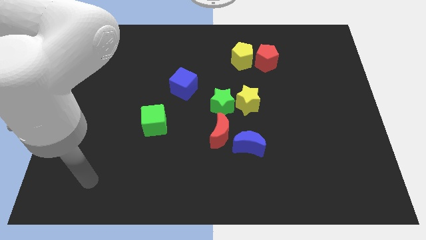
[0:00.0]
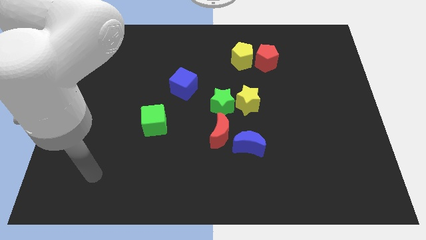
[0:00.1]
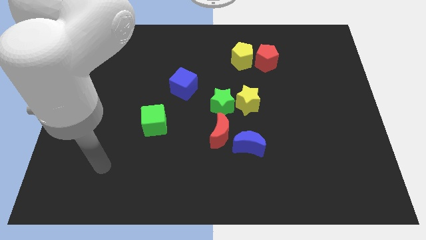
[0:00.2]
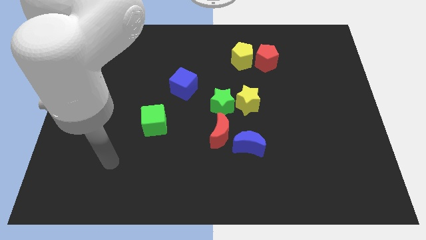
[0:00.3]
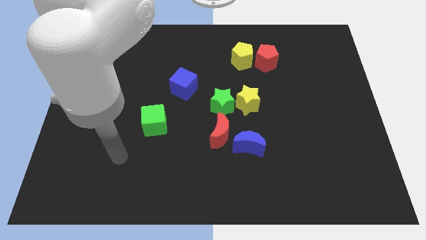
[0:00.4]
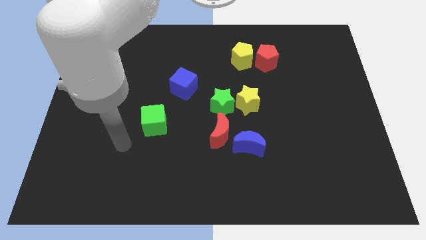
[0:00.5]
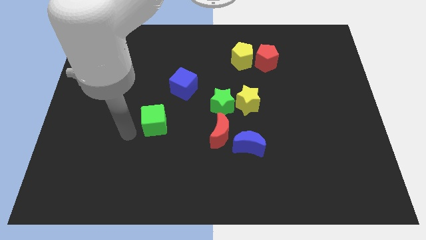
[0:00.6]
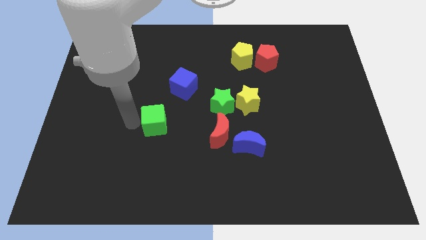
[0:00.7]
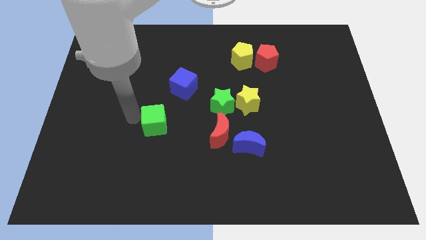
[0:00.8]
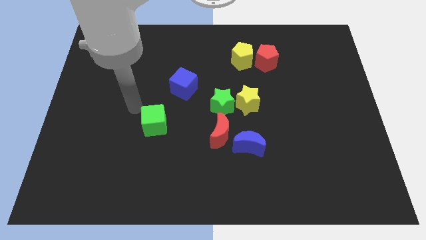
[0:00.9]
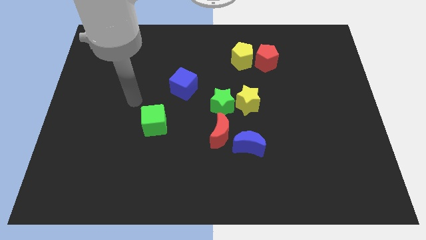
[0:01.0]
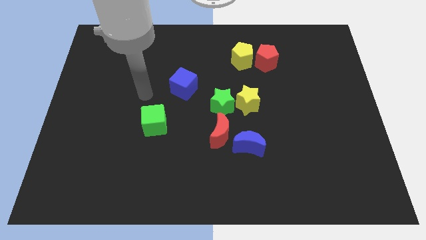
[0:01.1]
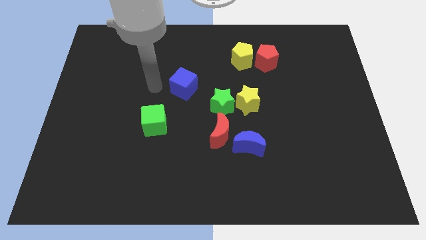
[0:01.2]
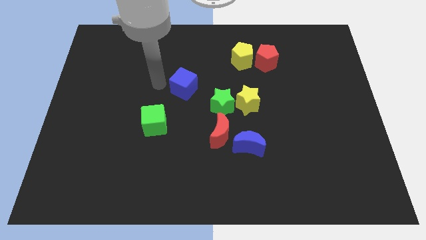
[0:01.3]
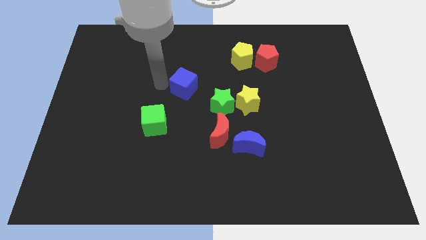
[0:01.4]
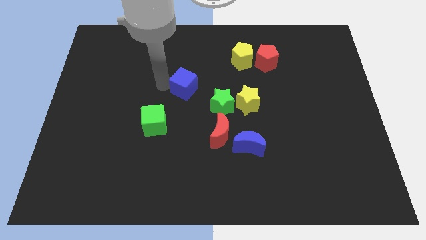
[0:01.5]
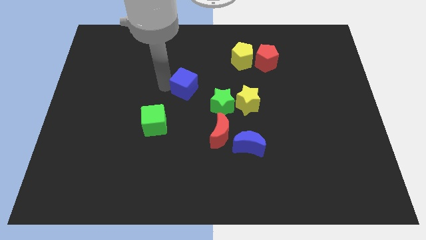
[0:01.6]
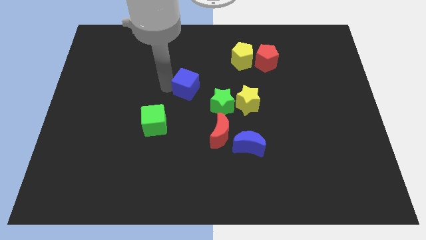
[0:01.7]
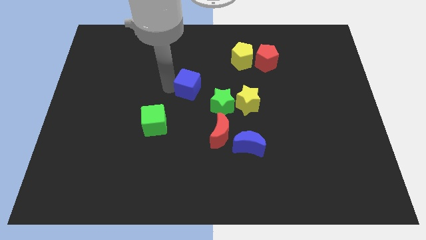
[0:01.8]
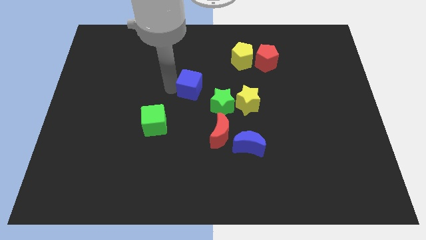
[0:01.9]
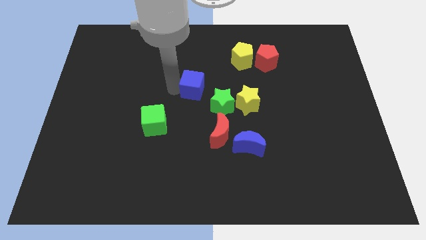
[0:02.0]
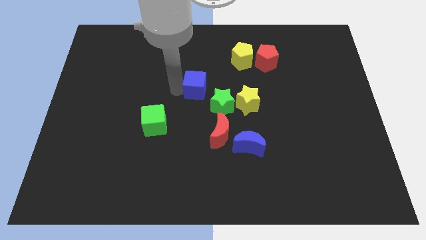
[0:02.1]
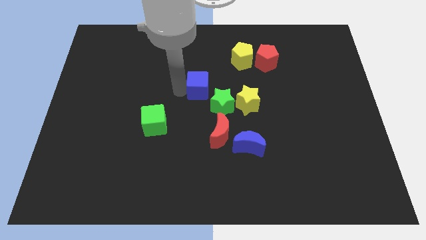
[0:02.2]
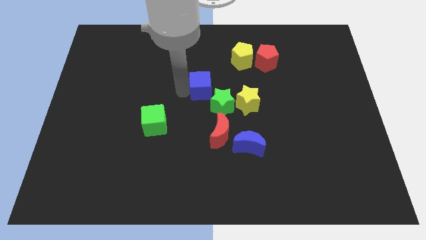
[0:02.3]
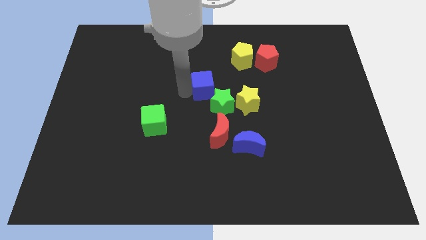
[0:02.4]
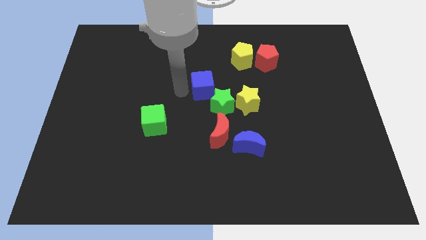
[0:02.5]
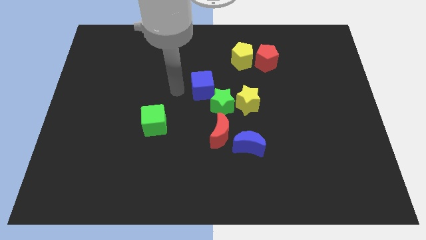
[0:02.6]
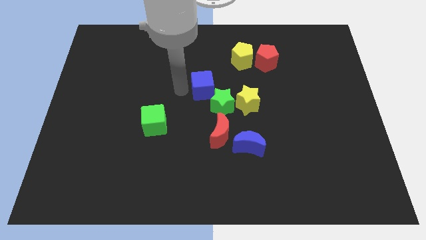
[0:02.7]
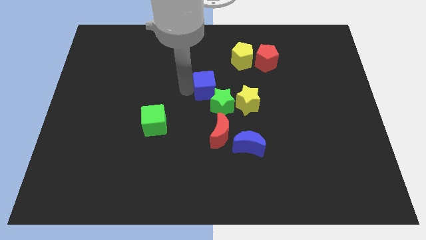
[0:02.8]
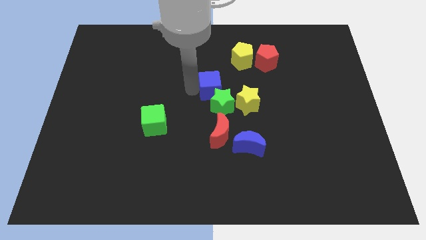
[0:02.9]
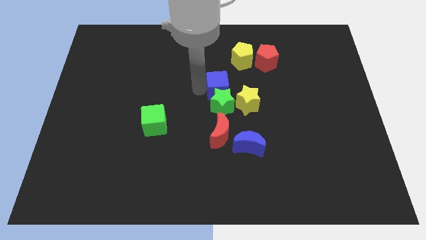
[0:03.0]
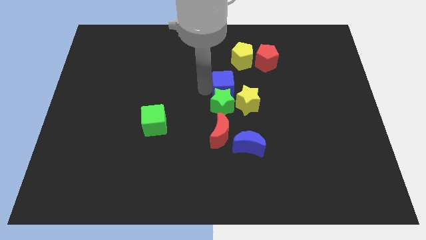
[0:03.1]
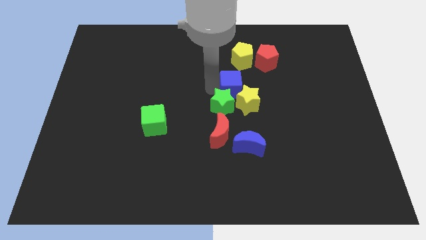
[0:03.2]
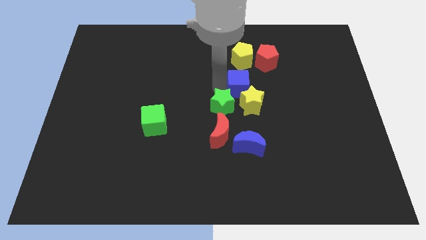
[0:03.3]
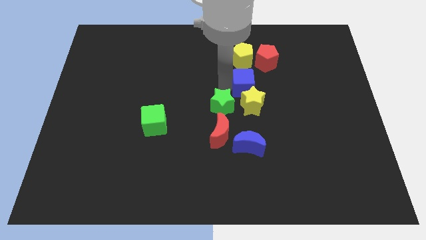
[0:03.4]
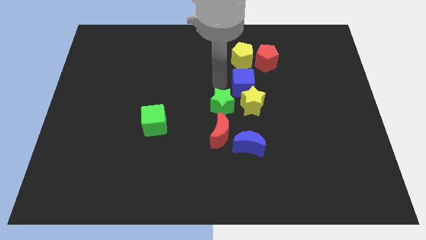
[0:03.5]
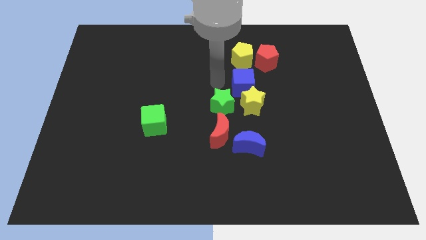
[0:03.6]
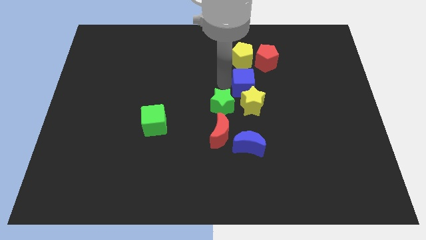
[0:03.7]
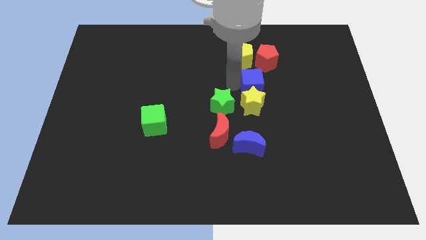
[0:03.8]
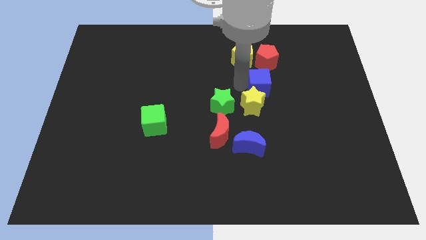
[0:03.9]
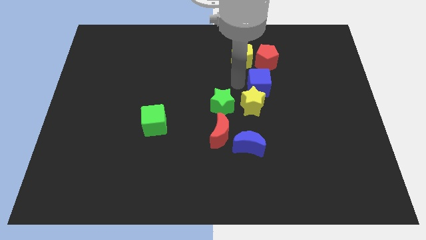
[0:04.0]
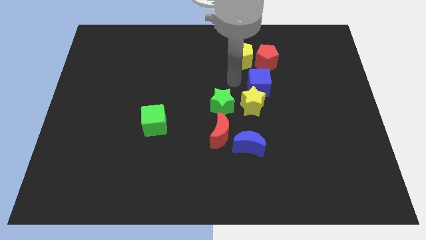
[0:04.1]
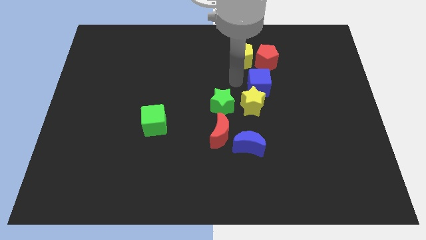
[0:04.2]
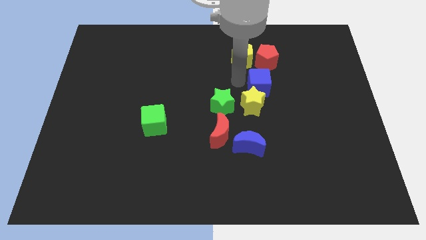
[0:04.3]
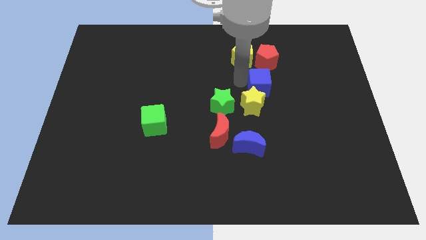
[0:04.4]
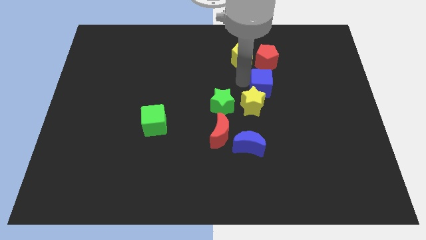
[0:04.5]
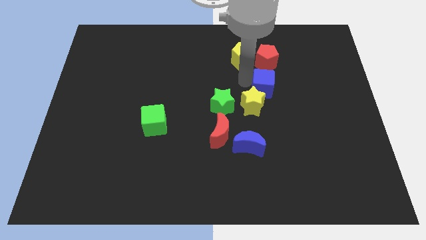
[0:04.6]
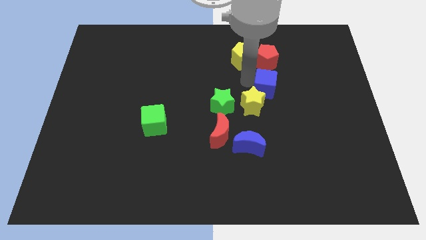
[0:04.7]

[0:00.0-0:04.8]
push the blue cube to the right

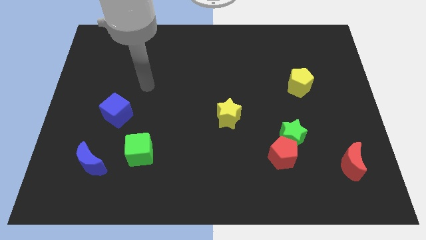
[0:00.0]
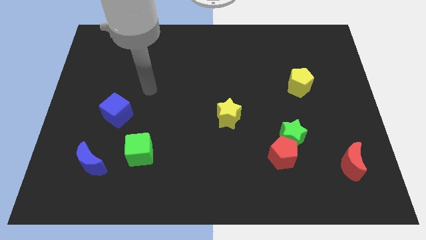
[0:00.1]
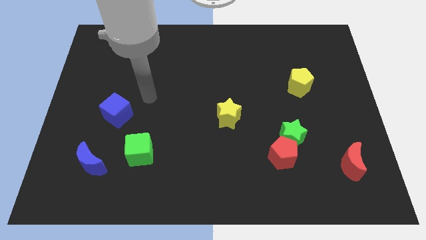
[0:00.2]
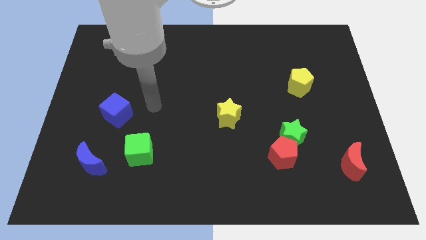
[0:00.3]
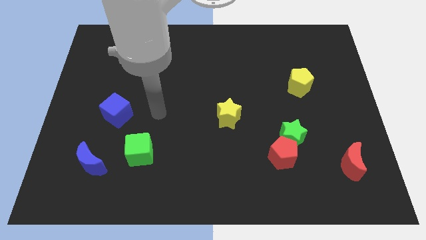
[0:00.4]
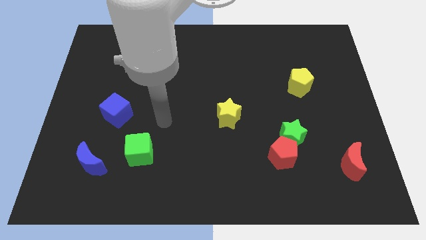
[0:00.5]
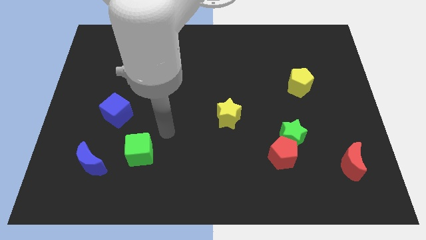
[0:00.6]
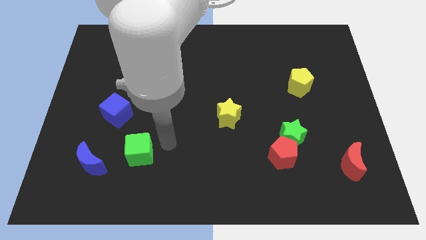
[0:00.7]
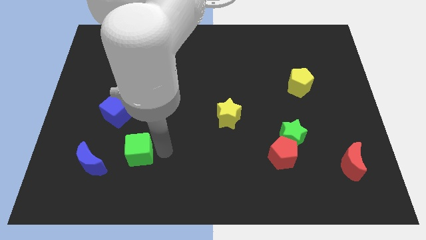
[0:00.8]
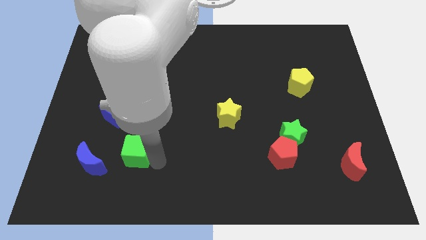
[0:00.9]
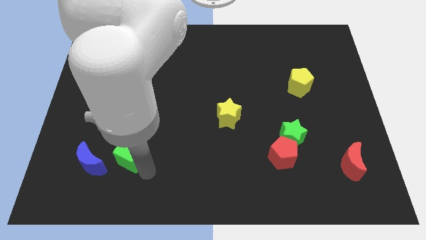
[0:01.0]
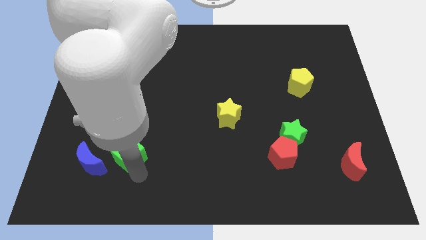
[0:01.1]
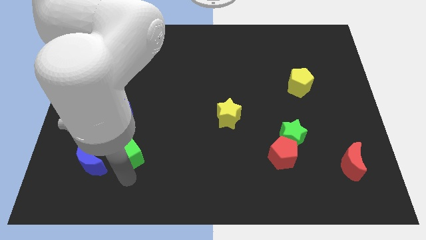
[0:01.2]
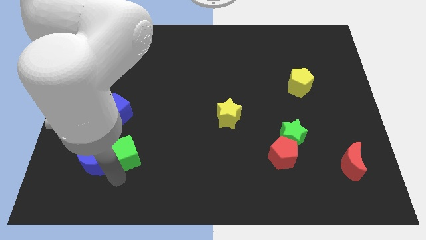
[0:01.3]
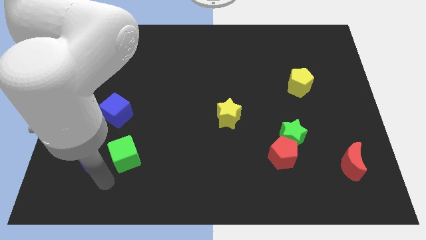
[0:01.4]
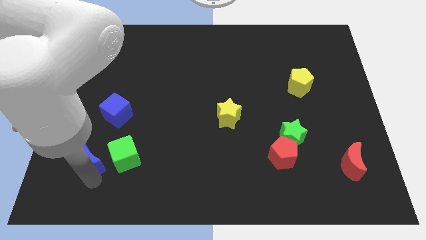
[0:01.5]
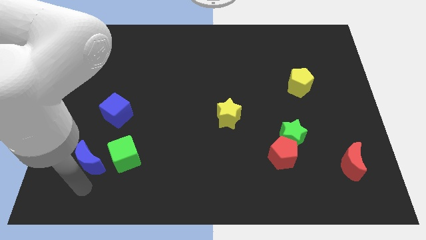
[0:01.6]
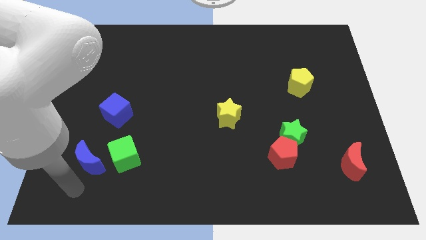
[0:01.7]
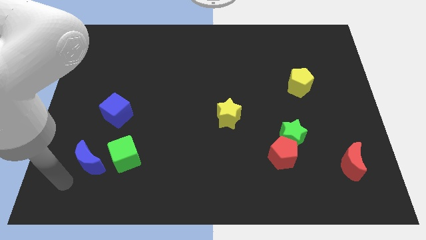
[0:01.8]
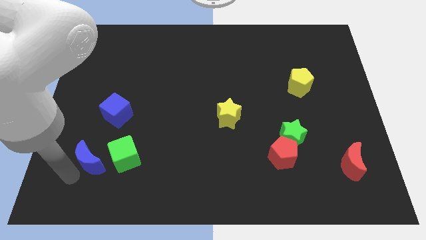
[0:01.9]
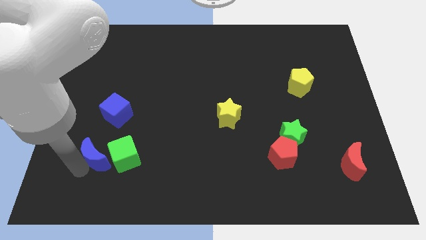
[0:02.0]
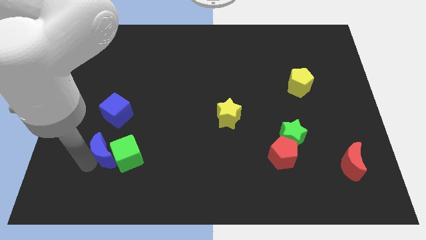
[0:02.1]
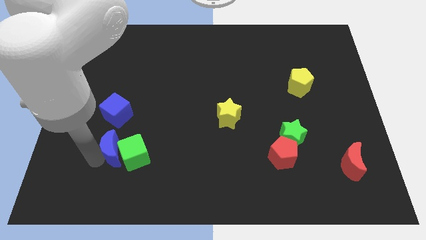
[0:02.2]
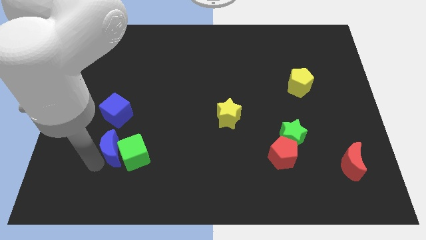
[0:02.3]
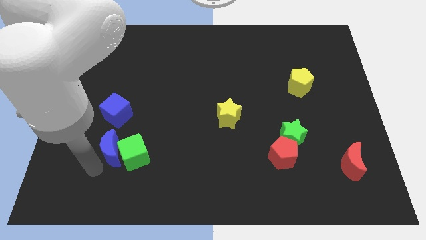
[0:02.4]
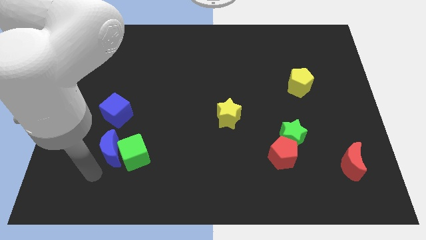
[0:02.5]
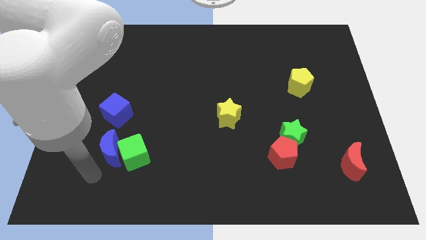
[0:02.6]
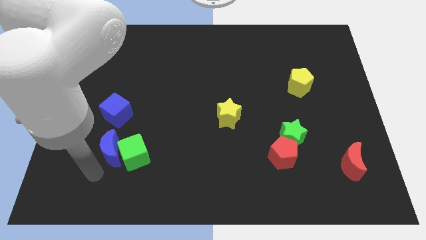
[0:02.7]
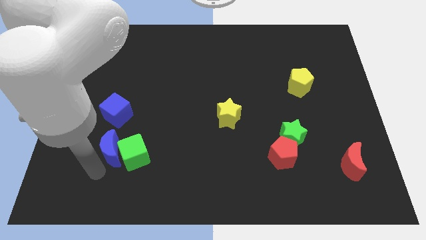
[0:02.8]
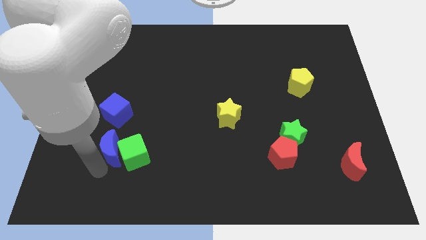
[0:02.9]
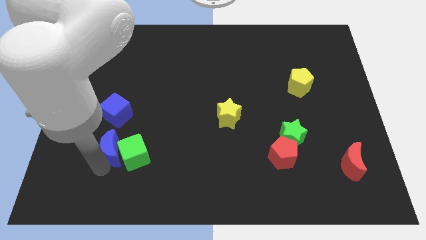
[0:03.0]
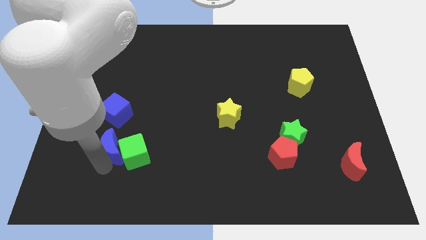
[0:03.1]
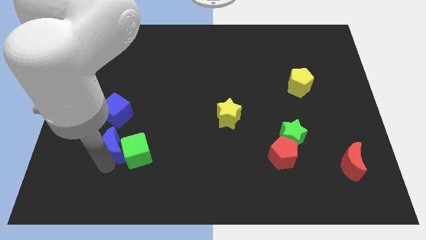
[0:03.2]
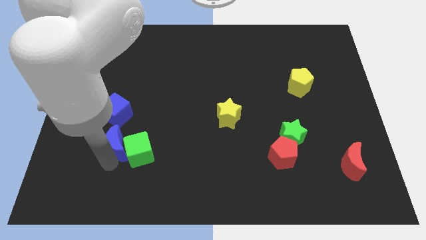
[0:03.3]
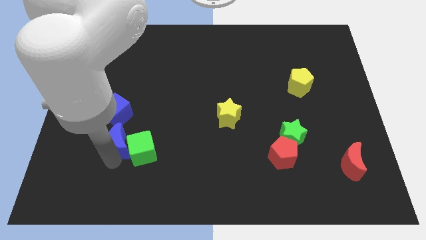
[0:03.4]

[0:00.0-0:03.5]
move the blue moon a bit up and to the right diagonally
